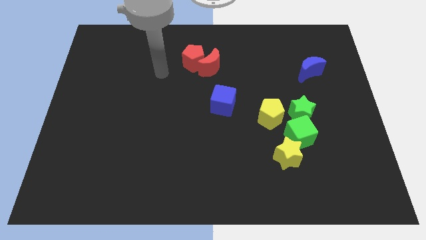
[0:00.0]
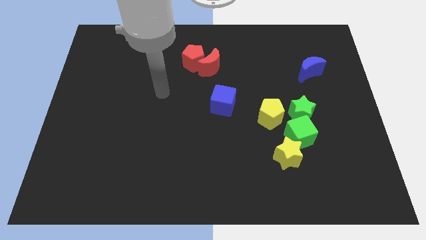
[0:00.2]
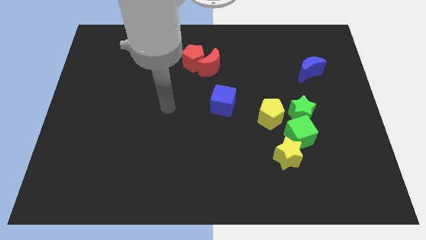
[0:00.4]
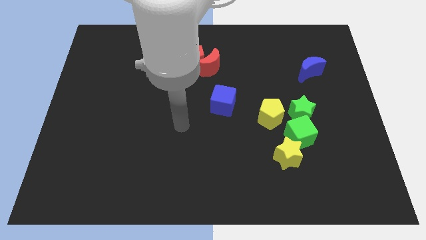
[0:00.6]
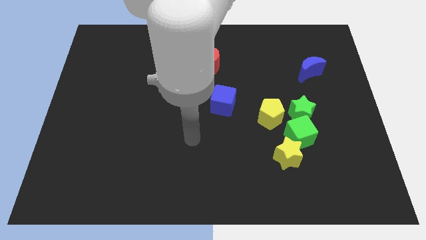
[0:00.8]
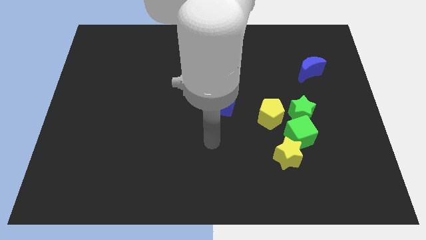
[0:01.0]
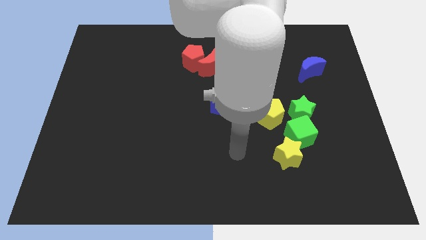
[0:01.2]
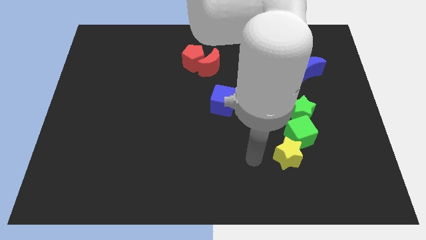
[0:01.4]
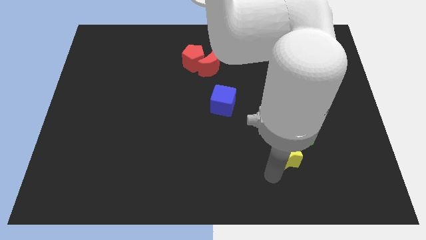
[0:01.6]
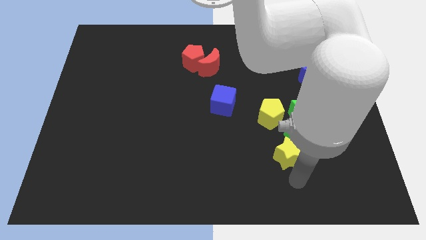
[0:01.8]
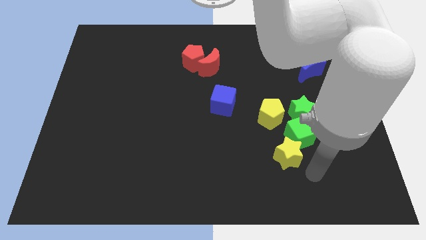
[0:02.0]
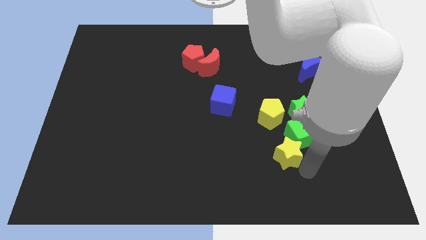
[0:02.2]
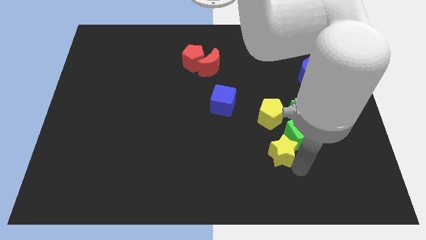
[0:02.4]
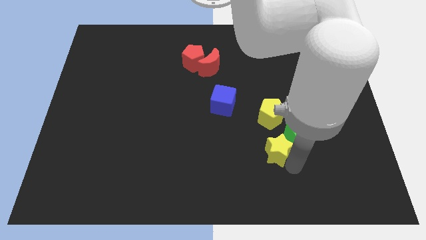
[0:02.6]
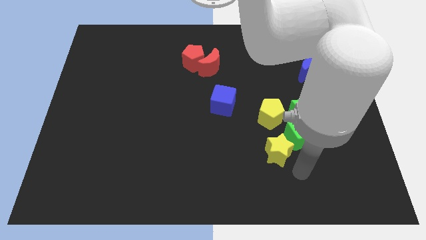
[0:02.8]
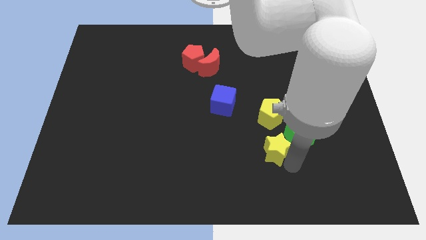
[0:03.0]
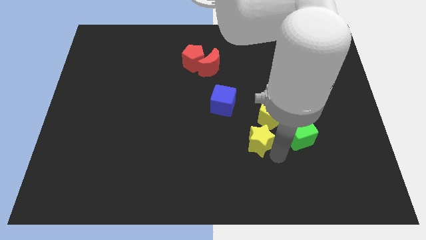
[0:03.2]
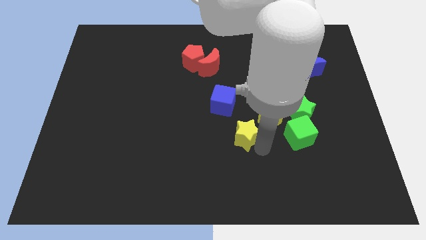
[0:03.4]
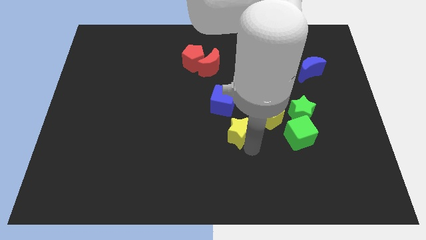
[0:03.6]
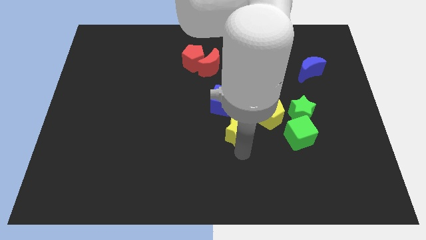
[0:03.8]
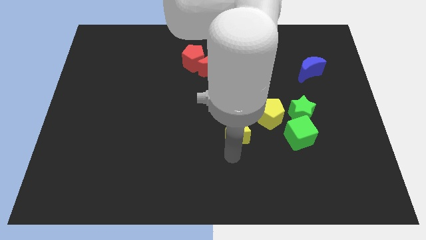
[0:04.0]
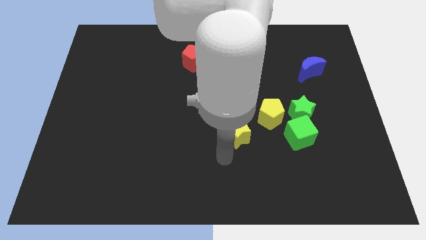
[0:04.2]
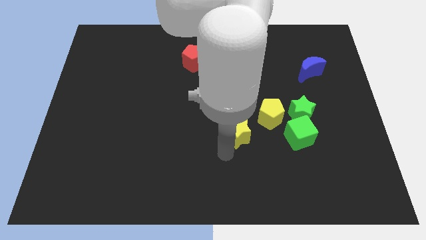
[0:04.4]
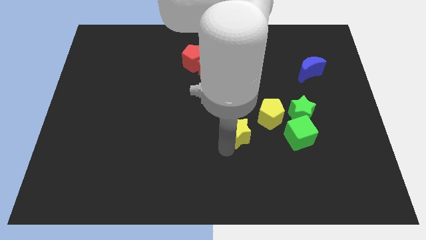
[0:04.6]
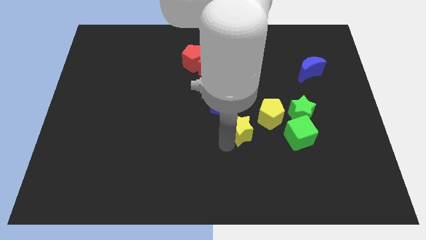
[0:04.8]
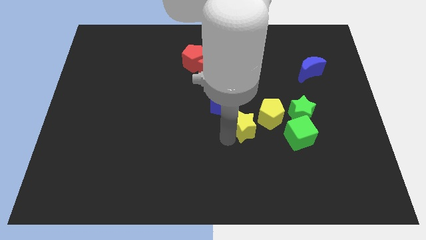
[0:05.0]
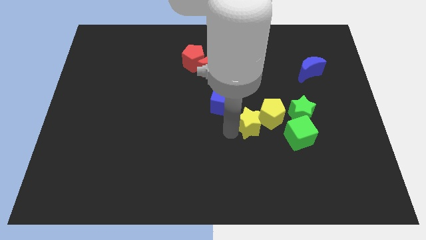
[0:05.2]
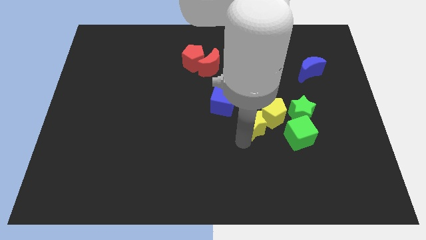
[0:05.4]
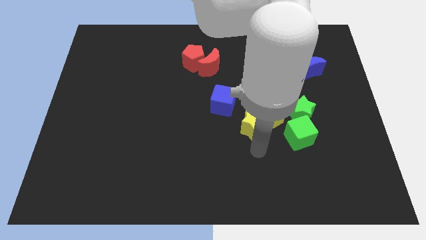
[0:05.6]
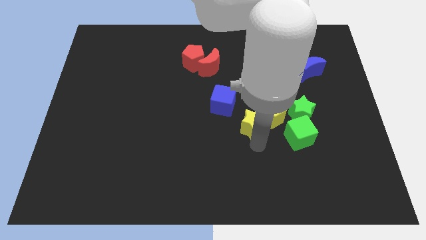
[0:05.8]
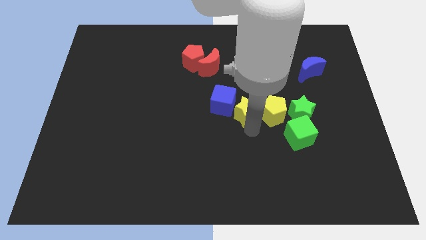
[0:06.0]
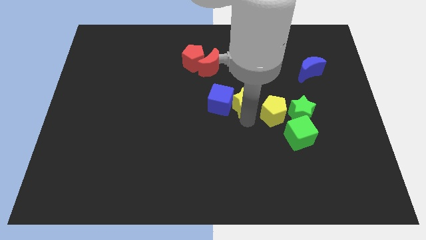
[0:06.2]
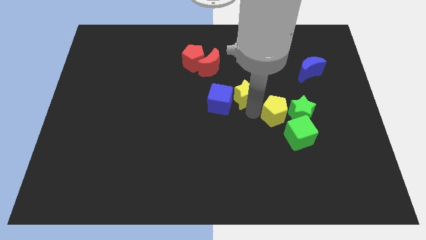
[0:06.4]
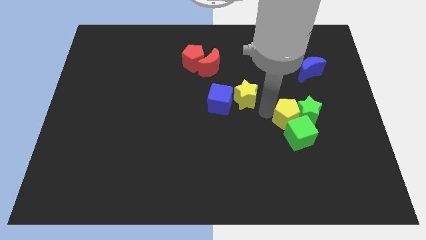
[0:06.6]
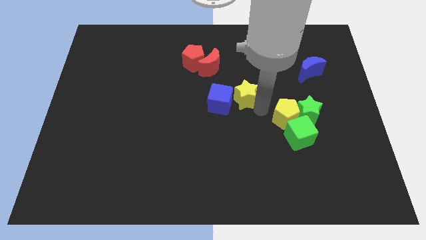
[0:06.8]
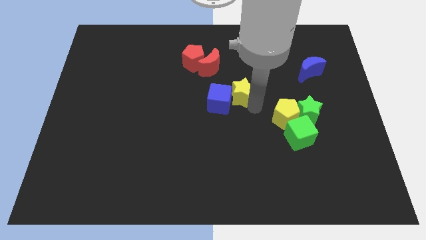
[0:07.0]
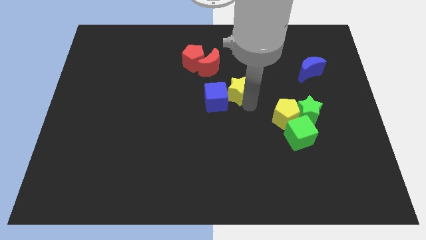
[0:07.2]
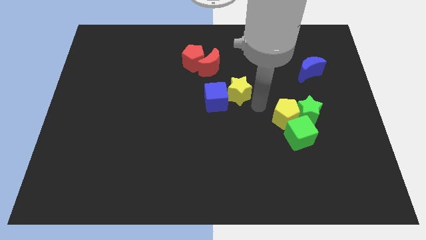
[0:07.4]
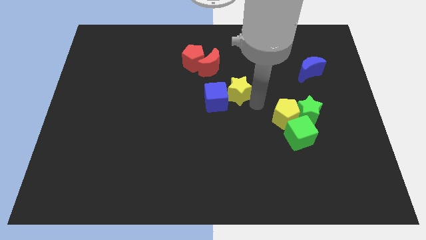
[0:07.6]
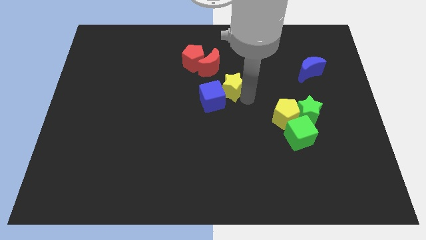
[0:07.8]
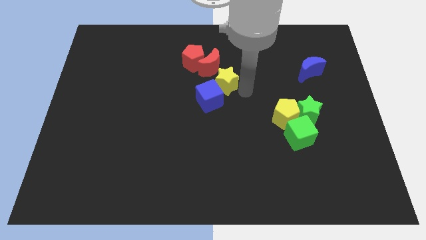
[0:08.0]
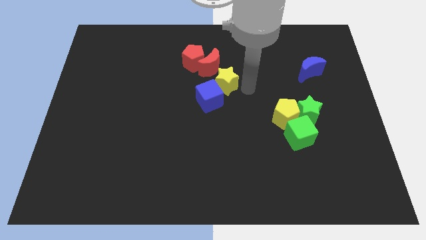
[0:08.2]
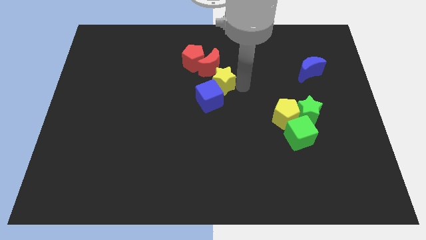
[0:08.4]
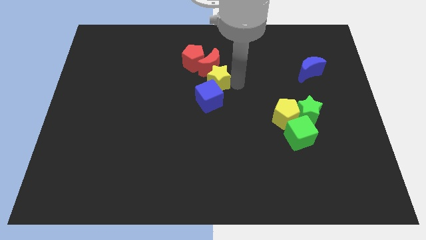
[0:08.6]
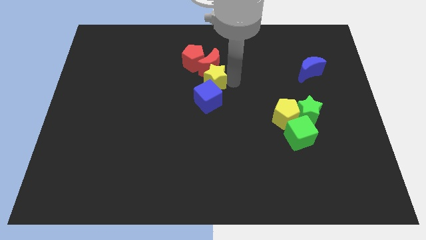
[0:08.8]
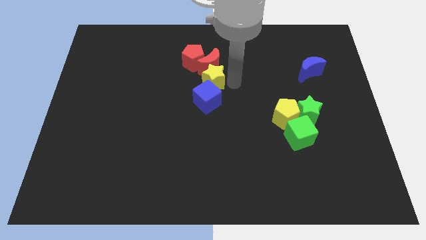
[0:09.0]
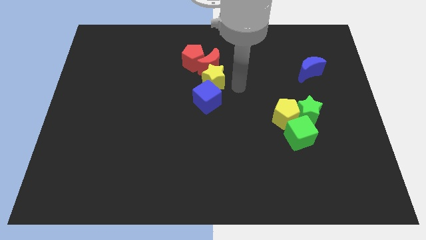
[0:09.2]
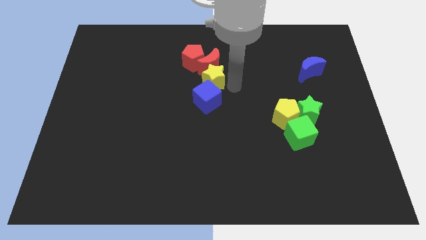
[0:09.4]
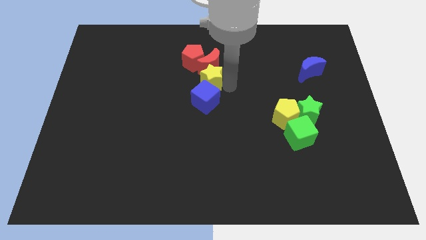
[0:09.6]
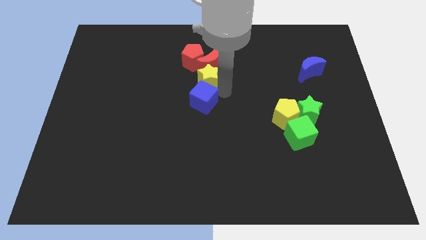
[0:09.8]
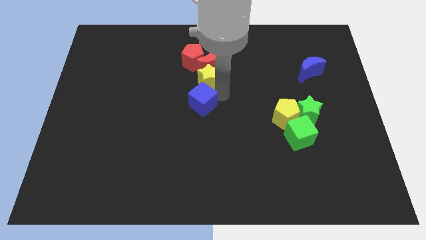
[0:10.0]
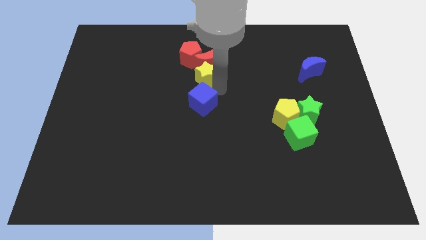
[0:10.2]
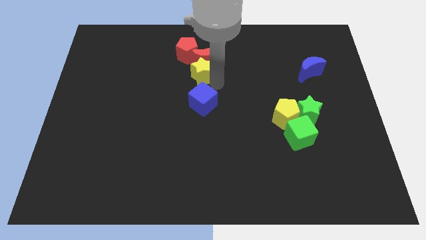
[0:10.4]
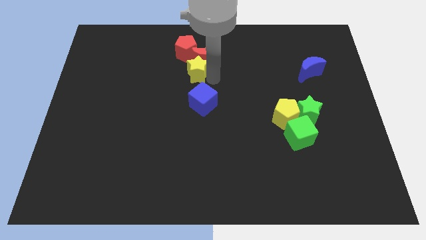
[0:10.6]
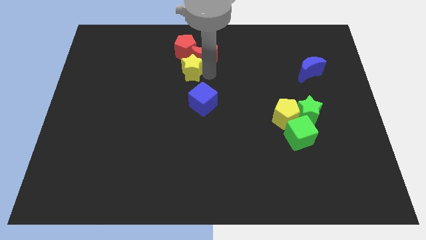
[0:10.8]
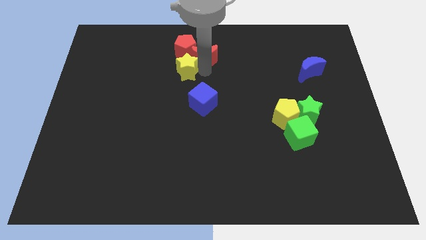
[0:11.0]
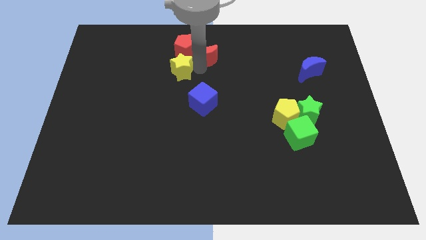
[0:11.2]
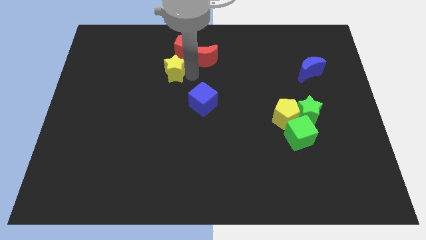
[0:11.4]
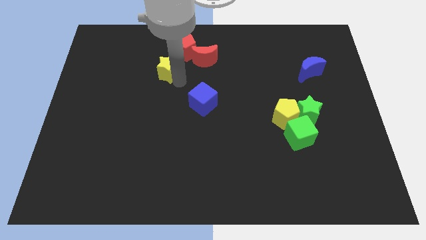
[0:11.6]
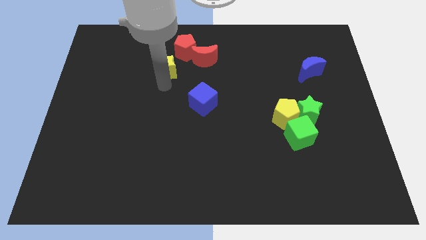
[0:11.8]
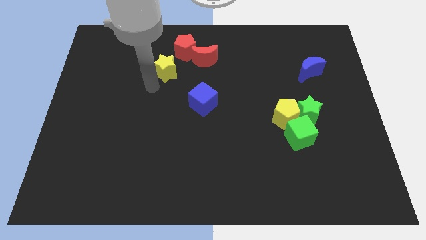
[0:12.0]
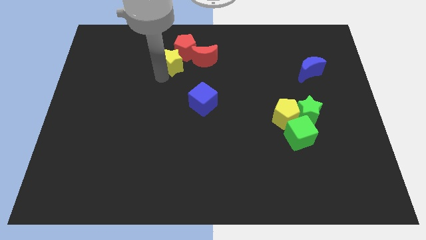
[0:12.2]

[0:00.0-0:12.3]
slide the yellow star next to the red pentagon

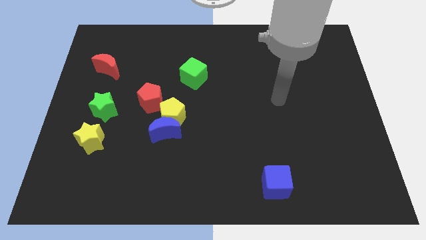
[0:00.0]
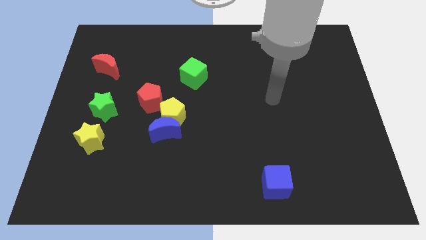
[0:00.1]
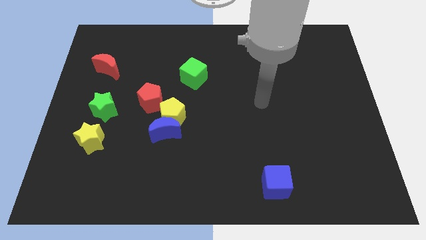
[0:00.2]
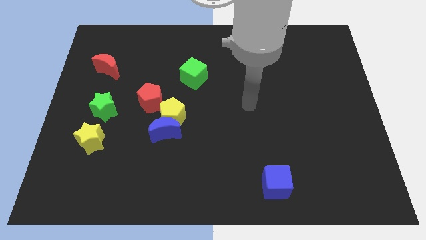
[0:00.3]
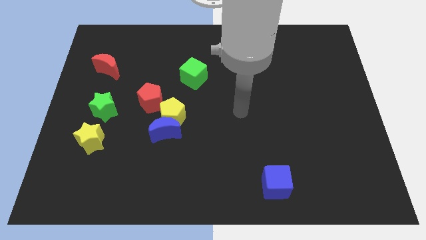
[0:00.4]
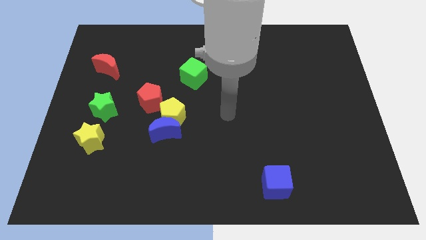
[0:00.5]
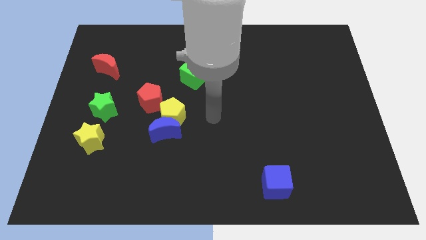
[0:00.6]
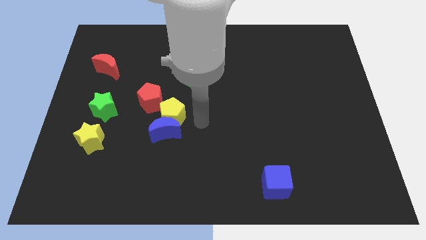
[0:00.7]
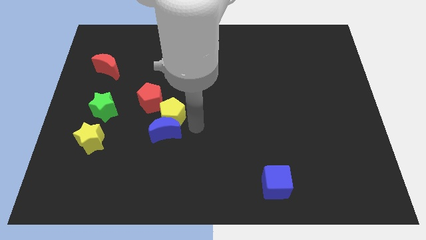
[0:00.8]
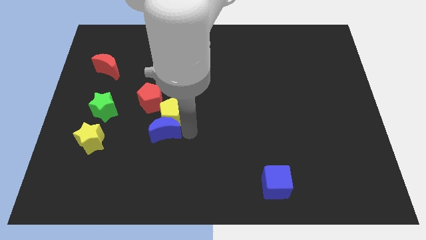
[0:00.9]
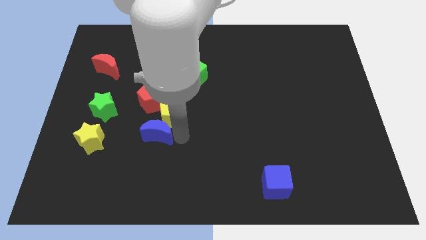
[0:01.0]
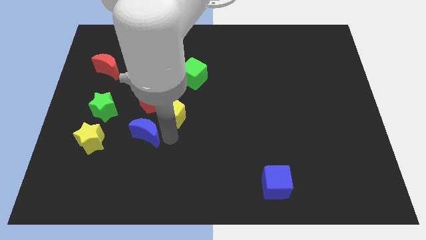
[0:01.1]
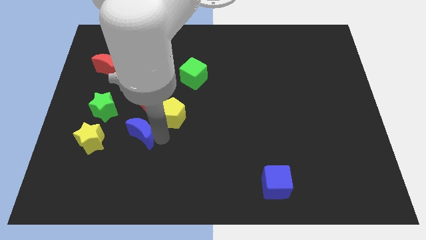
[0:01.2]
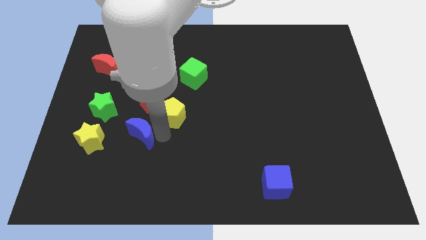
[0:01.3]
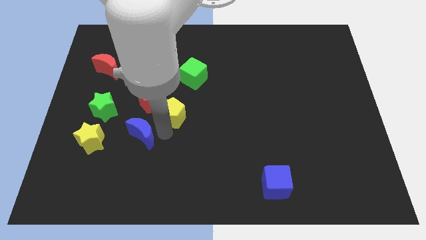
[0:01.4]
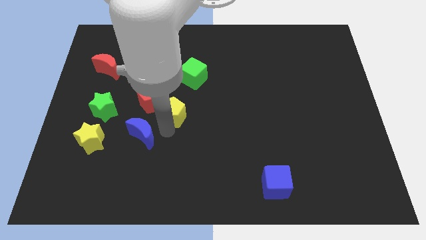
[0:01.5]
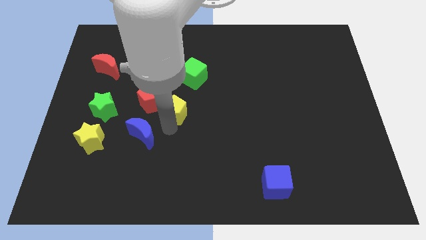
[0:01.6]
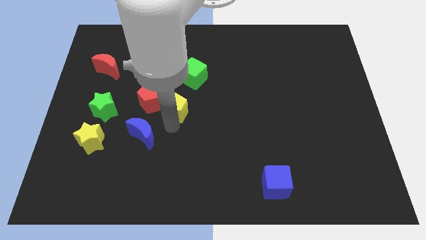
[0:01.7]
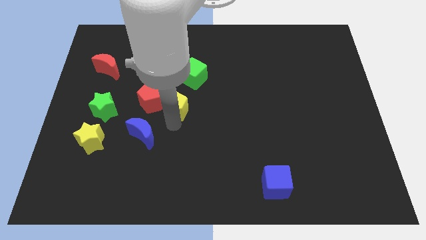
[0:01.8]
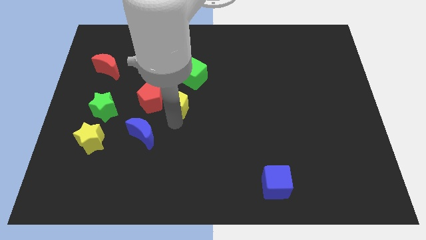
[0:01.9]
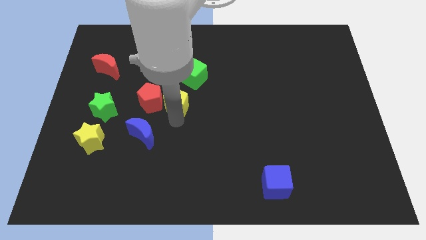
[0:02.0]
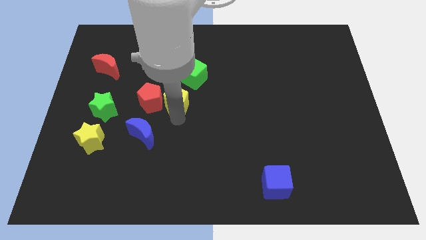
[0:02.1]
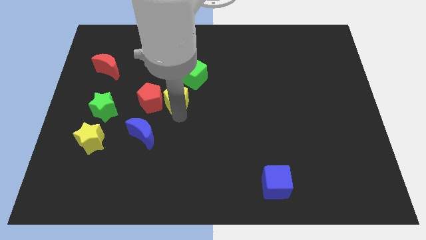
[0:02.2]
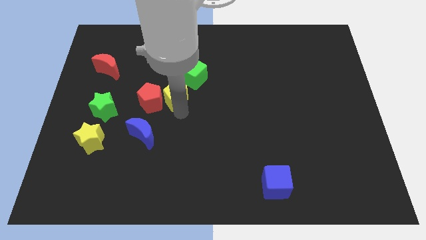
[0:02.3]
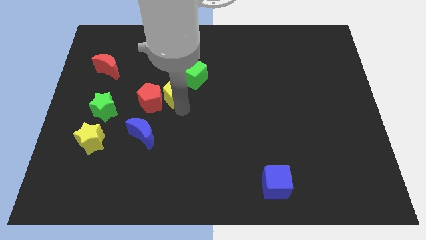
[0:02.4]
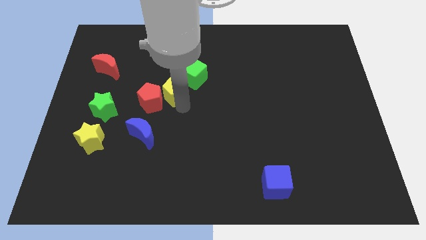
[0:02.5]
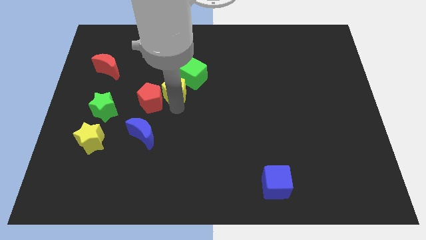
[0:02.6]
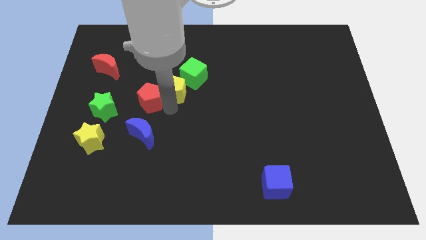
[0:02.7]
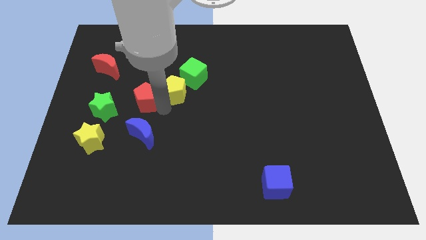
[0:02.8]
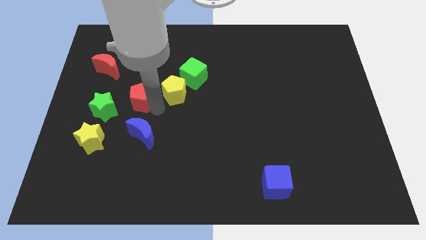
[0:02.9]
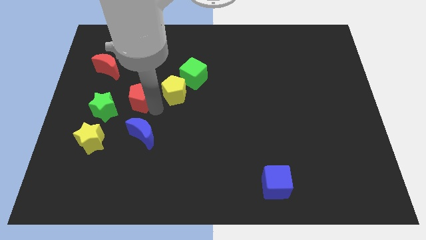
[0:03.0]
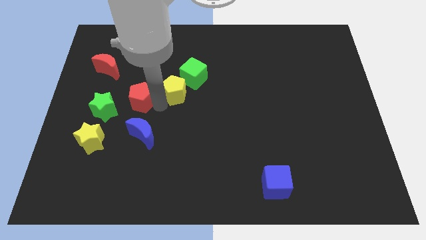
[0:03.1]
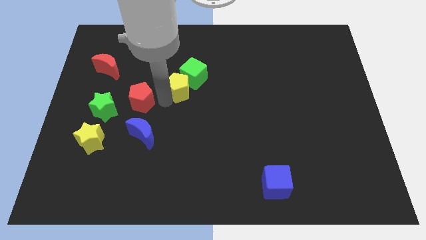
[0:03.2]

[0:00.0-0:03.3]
slide the yellow pentagon next to the green cube
